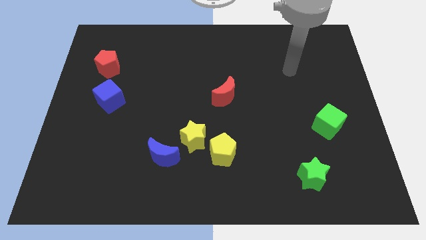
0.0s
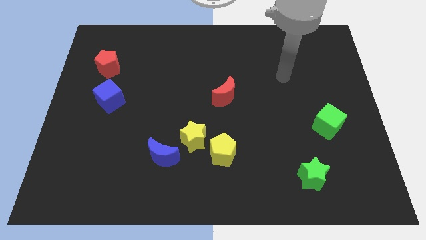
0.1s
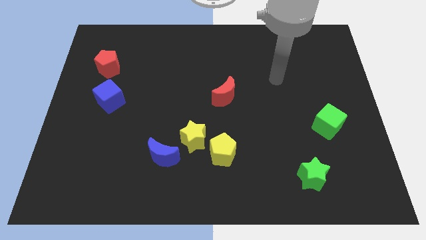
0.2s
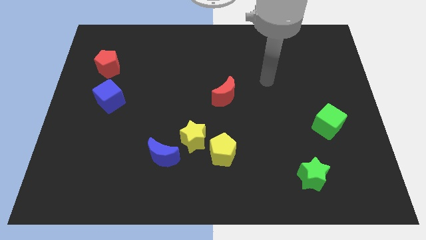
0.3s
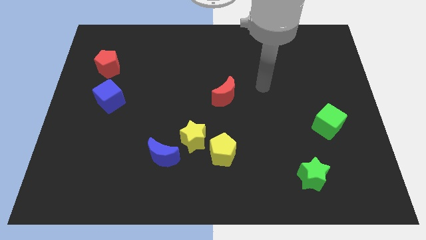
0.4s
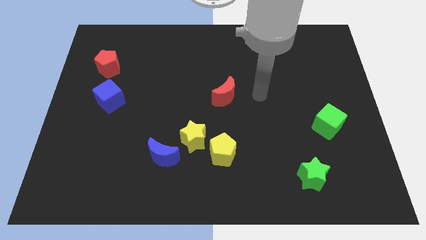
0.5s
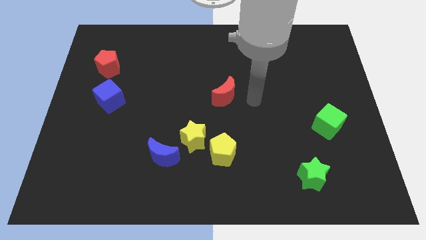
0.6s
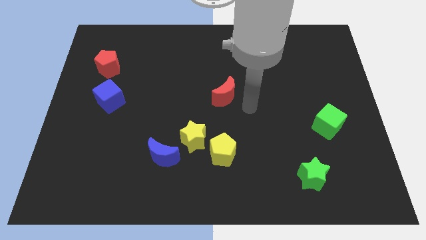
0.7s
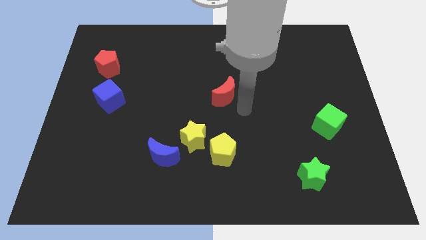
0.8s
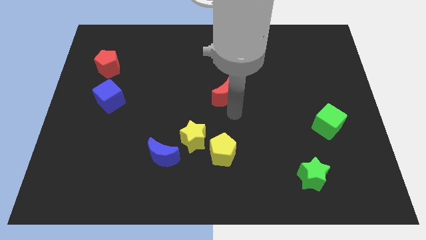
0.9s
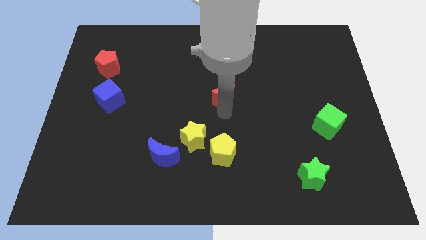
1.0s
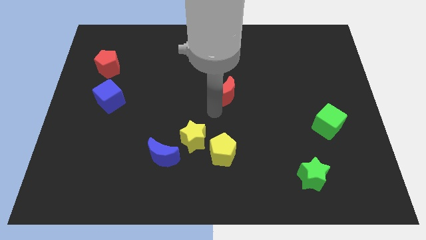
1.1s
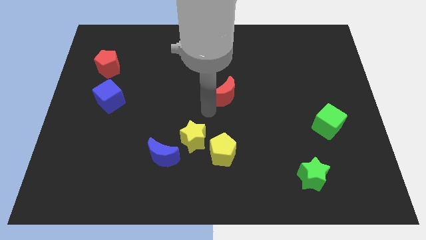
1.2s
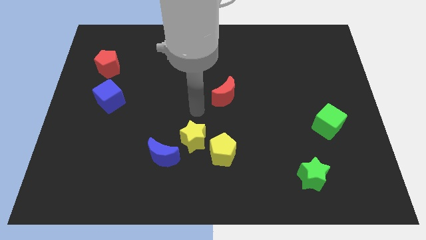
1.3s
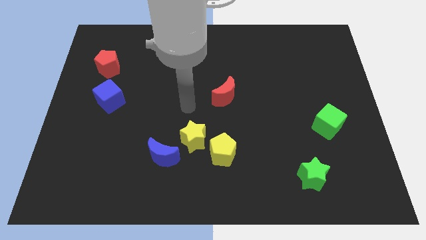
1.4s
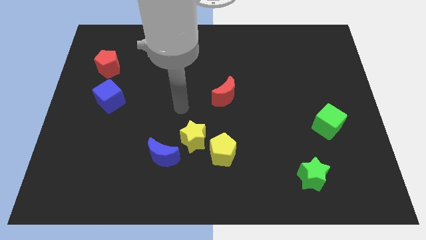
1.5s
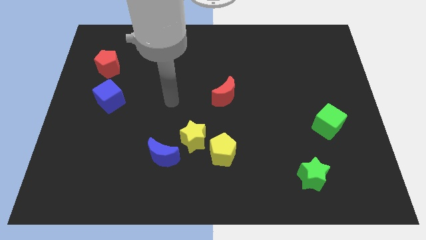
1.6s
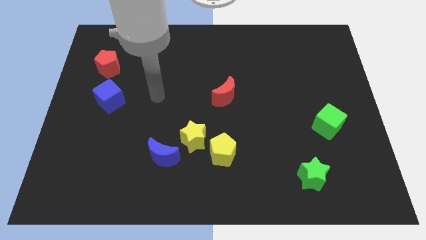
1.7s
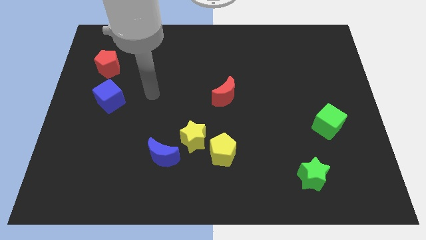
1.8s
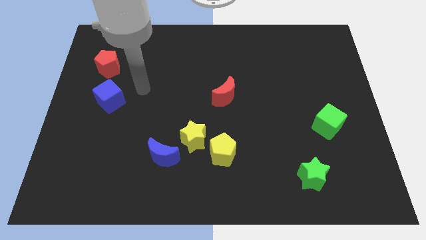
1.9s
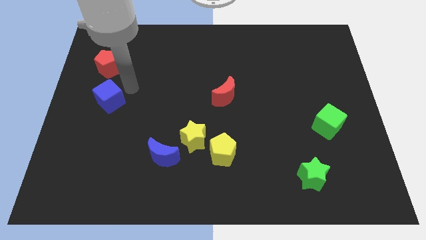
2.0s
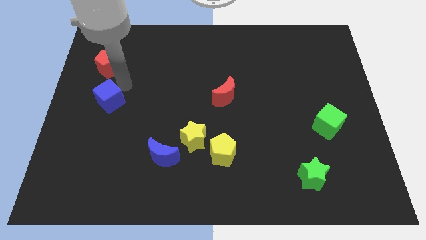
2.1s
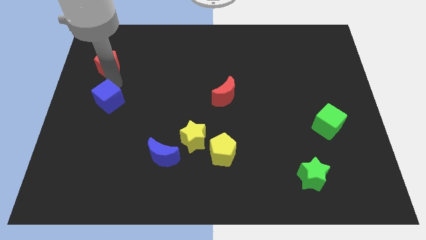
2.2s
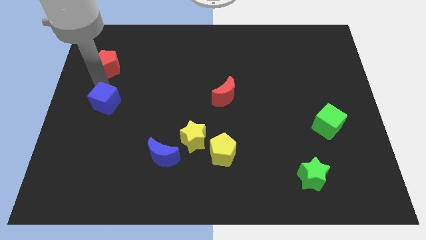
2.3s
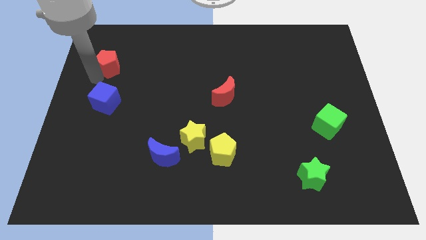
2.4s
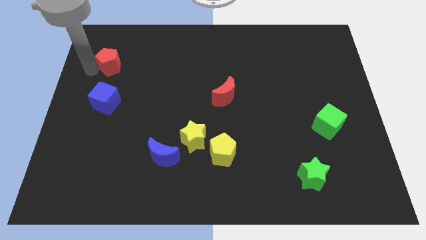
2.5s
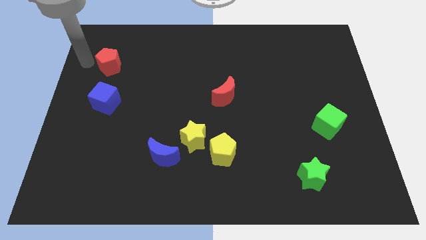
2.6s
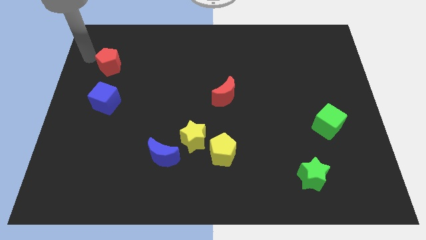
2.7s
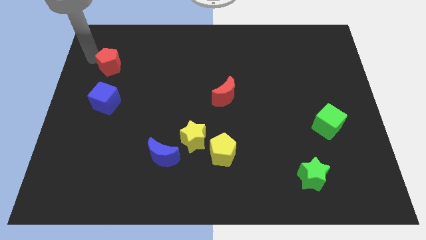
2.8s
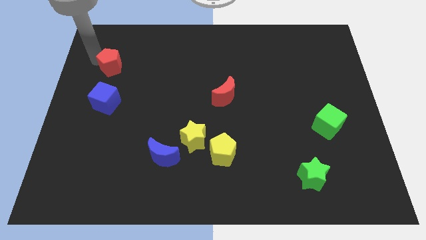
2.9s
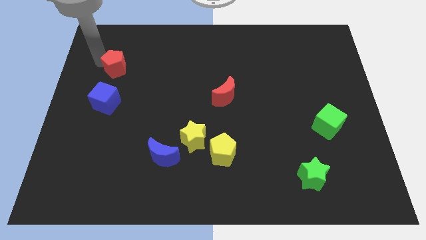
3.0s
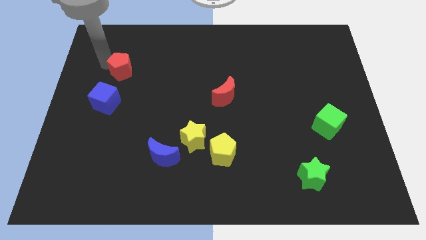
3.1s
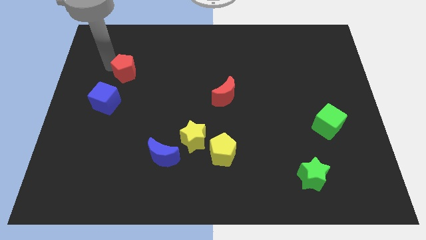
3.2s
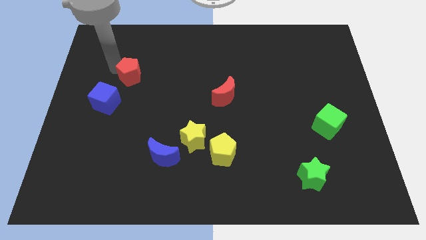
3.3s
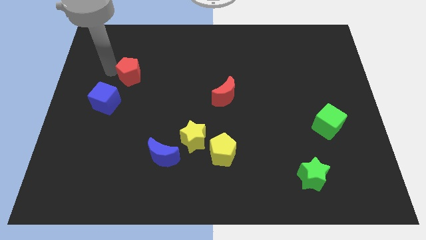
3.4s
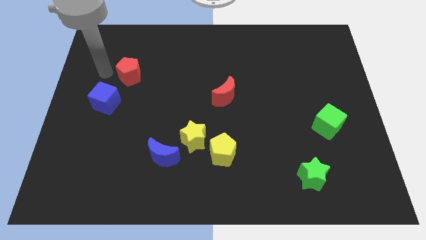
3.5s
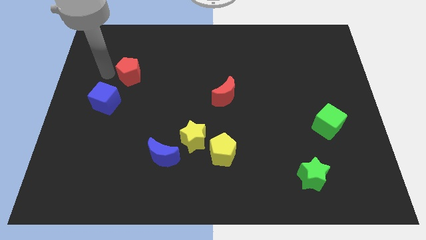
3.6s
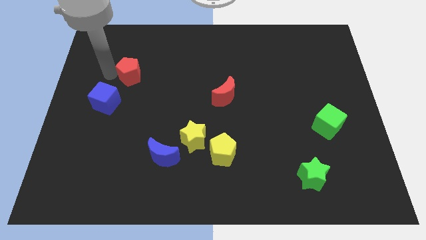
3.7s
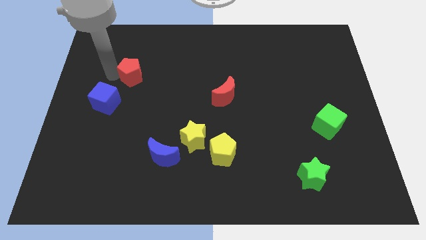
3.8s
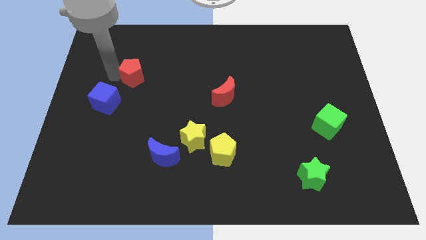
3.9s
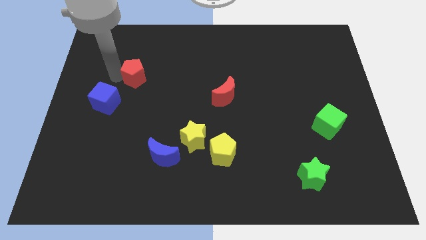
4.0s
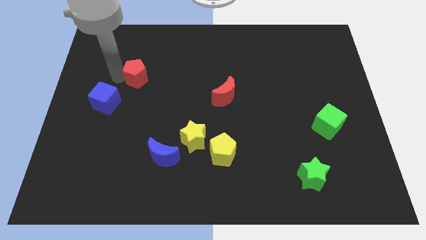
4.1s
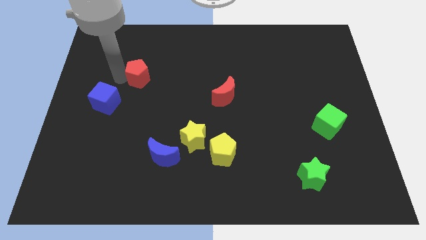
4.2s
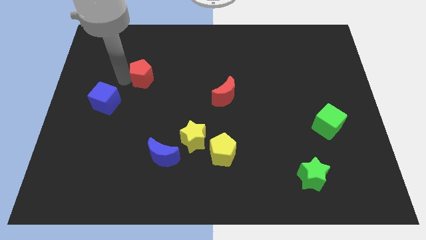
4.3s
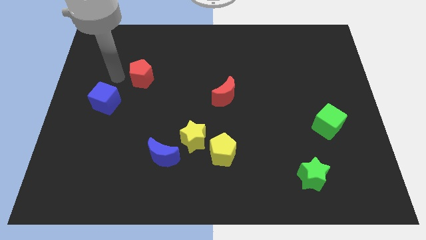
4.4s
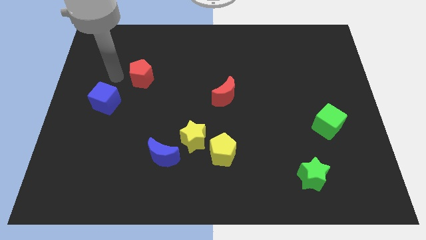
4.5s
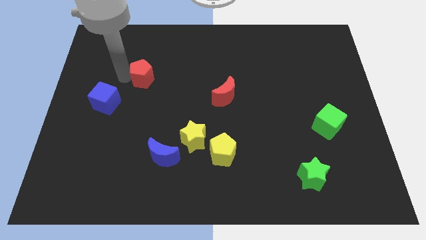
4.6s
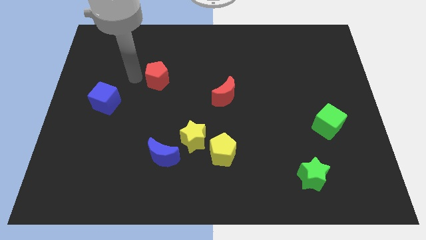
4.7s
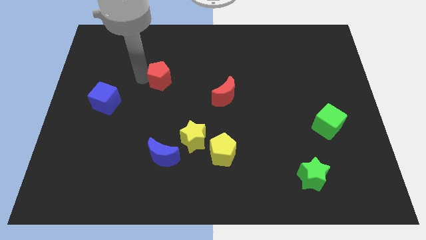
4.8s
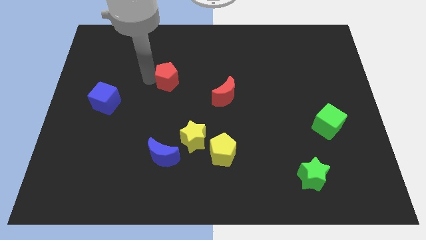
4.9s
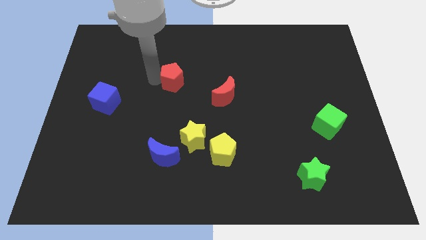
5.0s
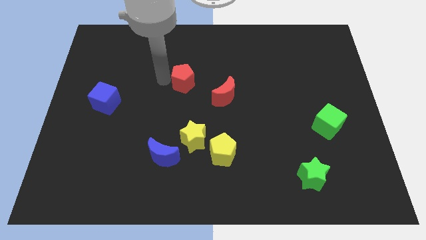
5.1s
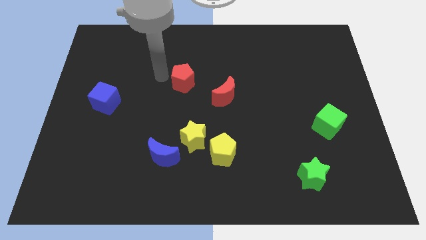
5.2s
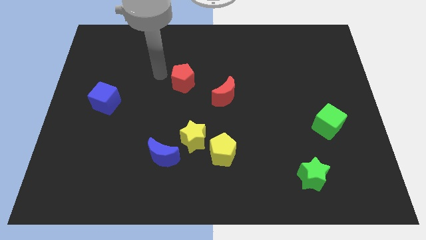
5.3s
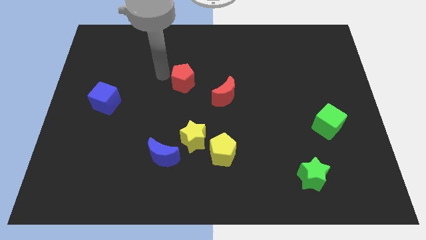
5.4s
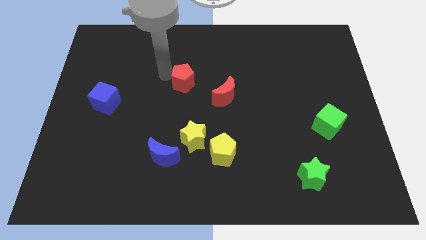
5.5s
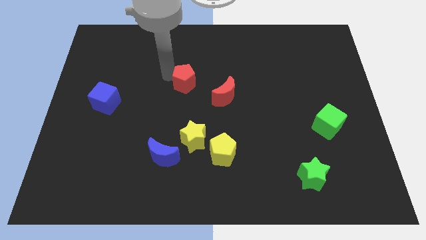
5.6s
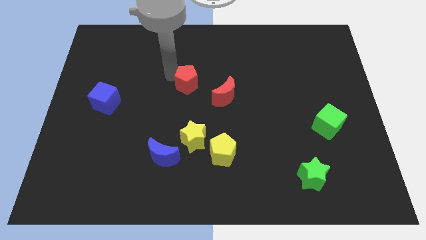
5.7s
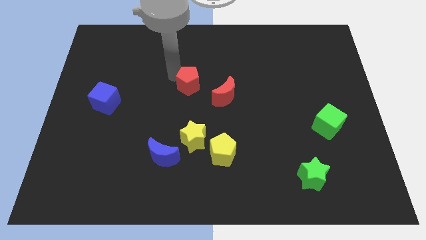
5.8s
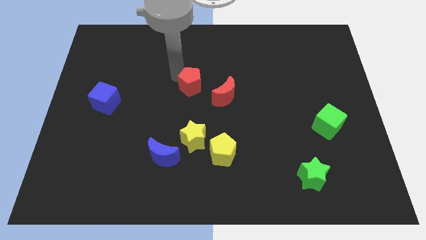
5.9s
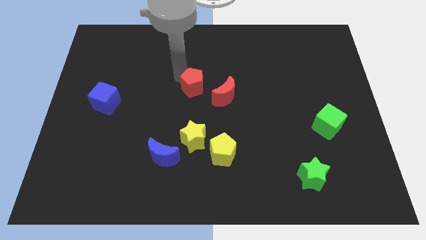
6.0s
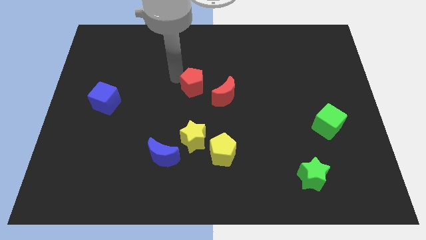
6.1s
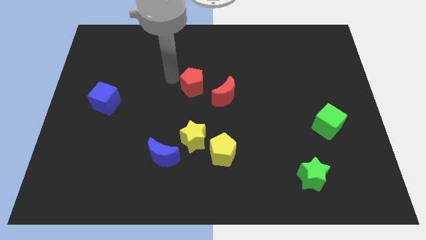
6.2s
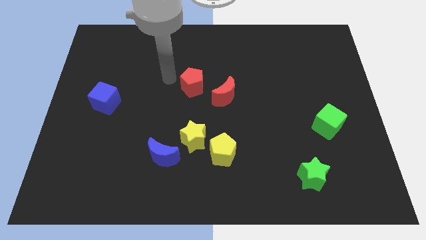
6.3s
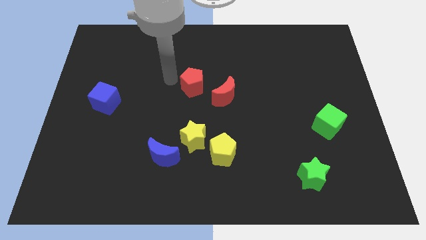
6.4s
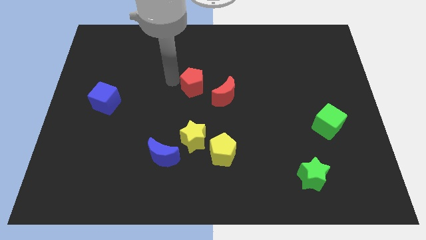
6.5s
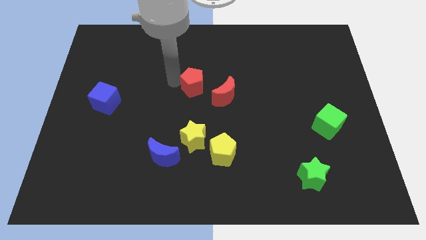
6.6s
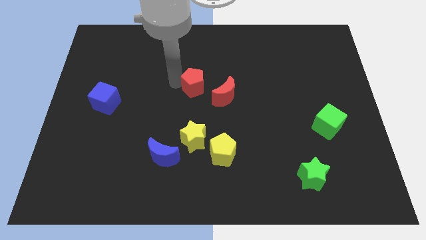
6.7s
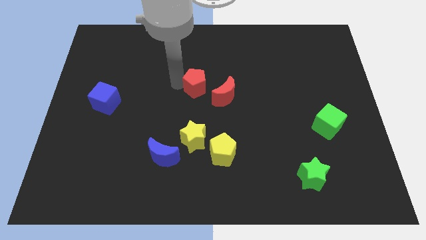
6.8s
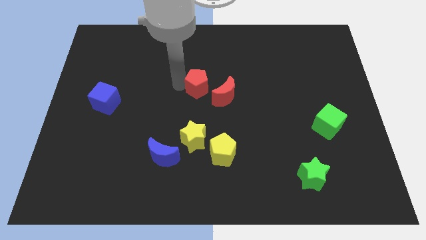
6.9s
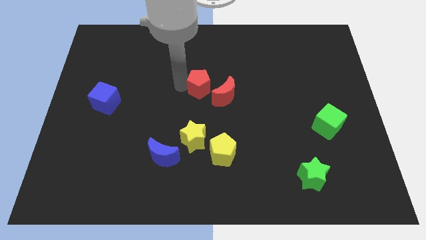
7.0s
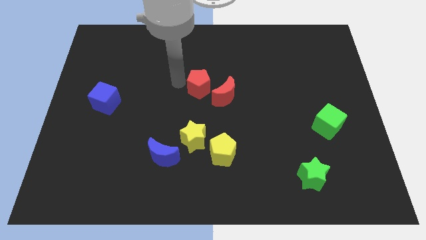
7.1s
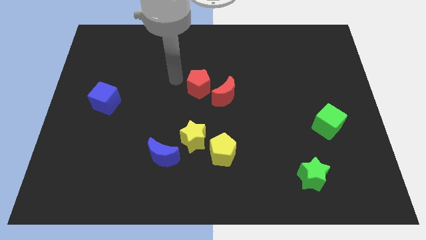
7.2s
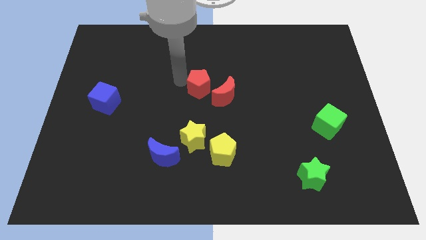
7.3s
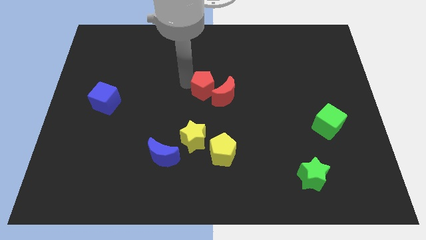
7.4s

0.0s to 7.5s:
push the red pentagon towards the red moon
